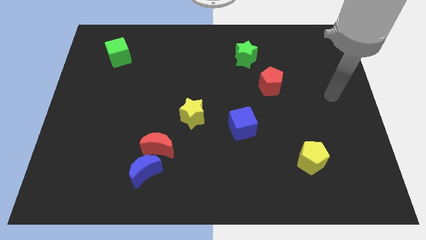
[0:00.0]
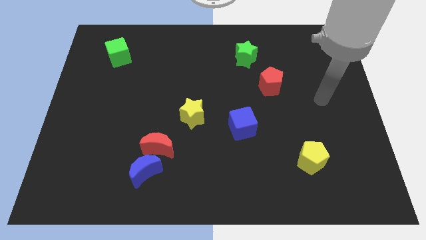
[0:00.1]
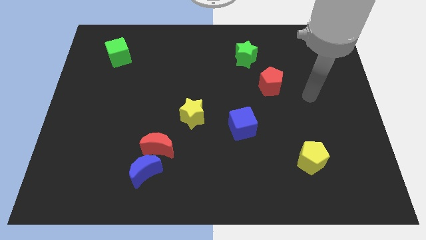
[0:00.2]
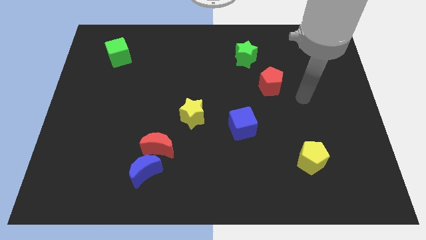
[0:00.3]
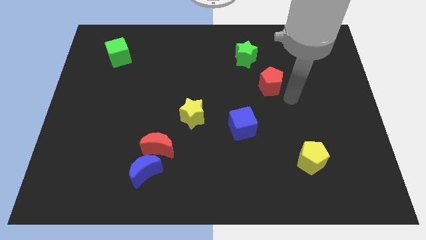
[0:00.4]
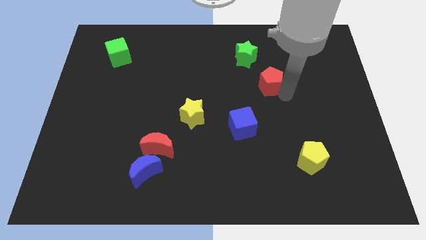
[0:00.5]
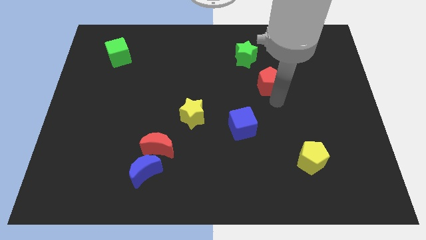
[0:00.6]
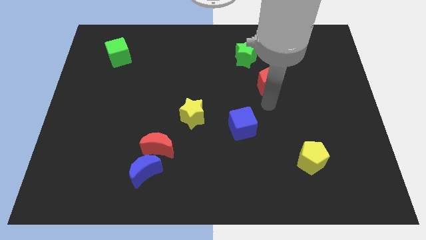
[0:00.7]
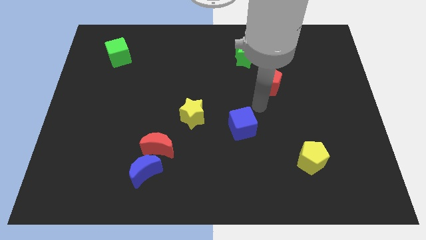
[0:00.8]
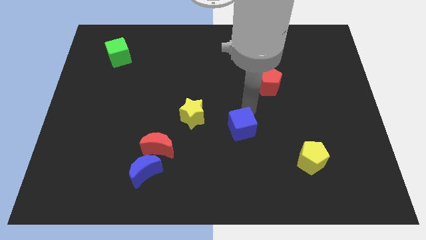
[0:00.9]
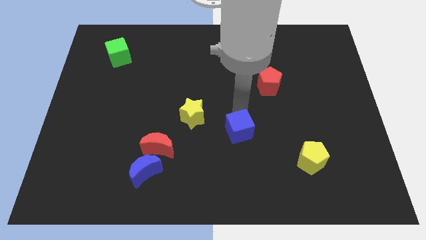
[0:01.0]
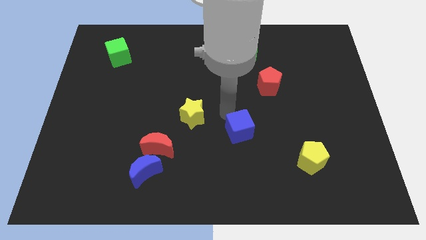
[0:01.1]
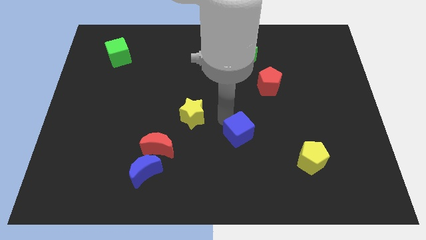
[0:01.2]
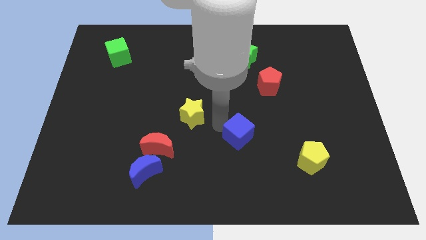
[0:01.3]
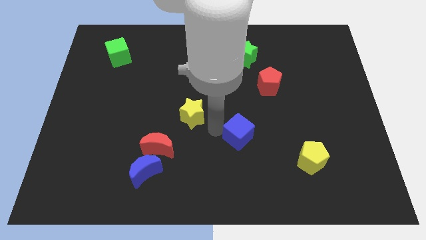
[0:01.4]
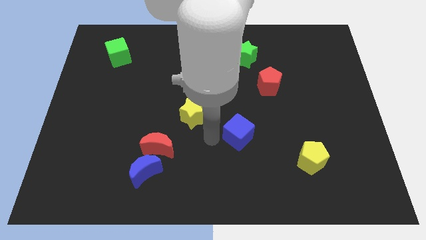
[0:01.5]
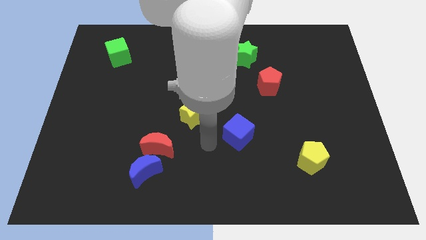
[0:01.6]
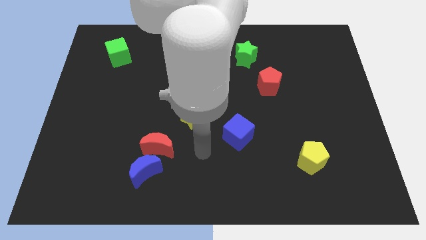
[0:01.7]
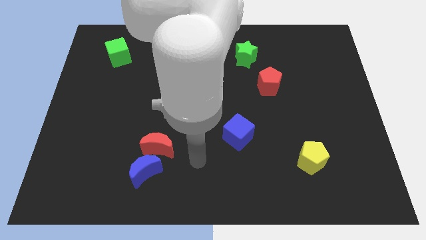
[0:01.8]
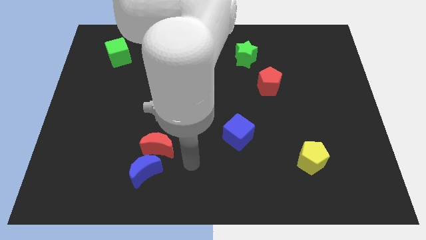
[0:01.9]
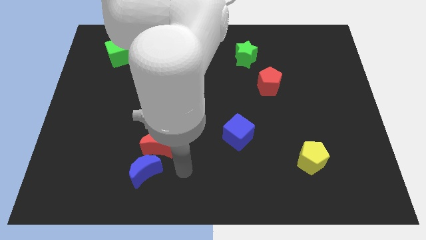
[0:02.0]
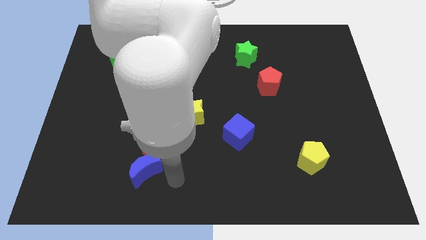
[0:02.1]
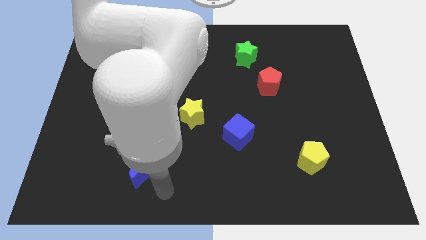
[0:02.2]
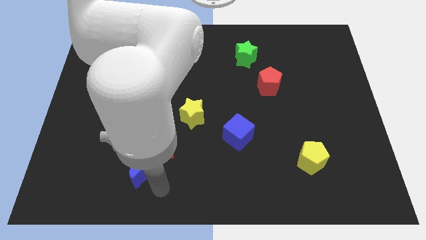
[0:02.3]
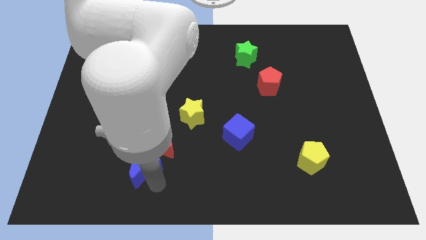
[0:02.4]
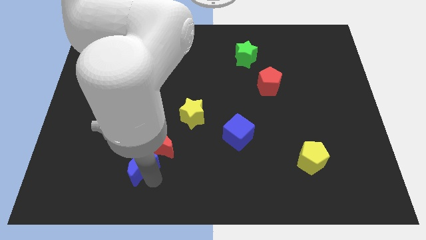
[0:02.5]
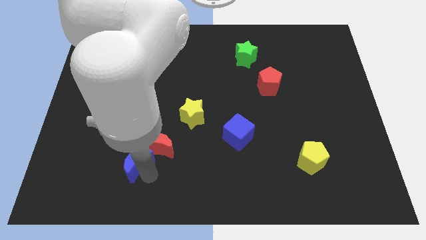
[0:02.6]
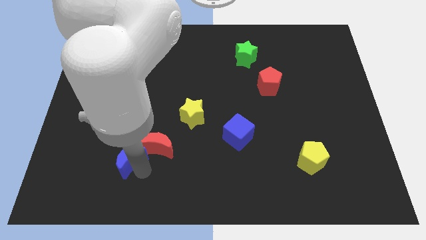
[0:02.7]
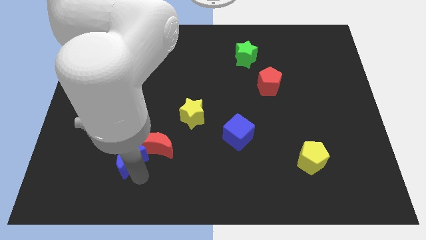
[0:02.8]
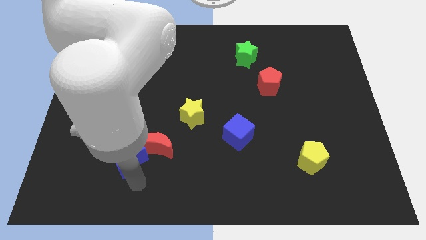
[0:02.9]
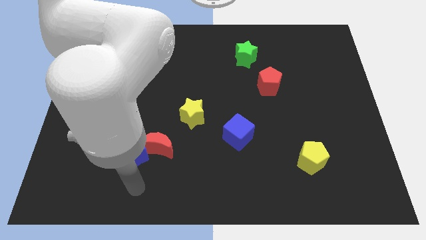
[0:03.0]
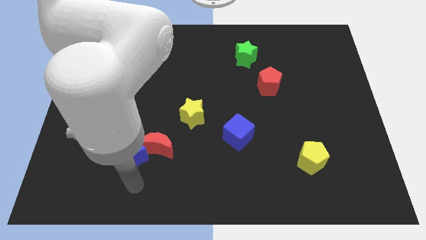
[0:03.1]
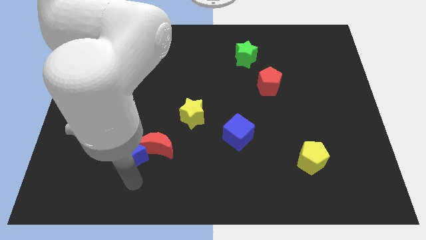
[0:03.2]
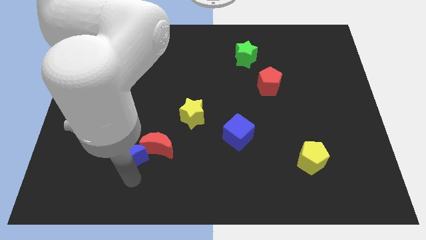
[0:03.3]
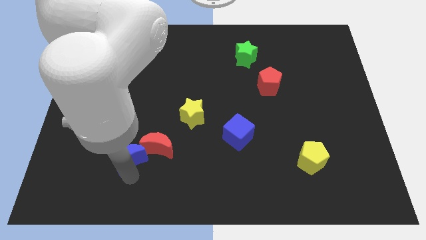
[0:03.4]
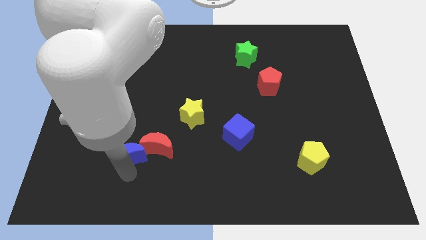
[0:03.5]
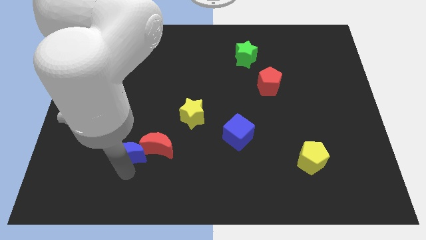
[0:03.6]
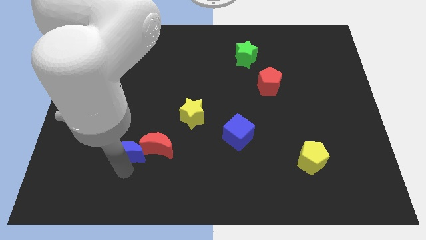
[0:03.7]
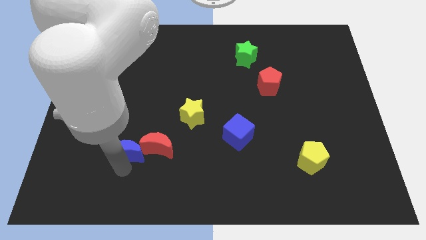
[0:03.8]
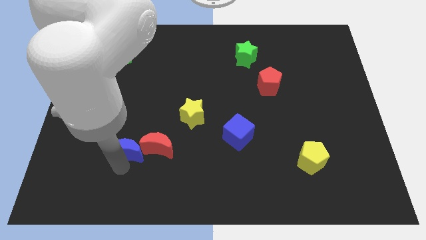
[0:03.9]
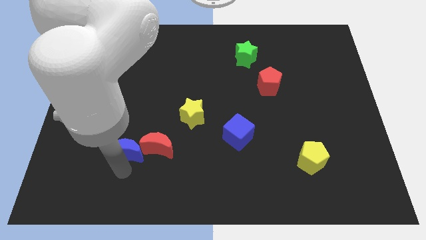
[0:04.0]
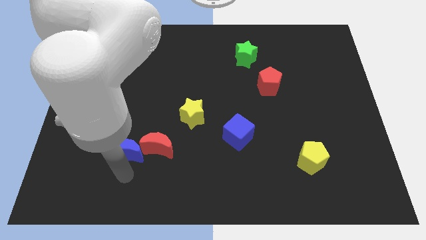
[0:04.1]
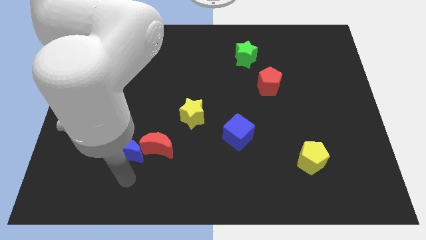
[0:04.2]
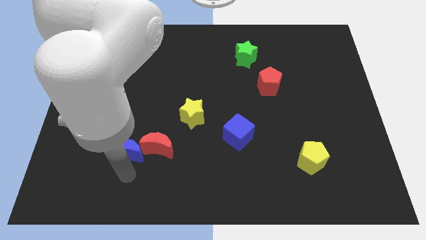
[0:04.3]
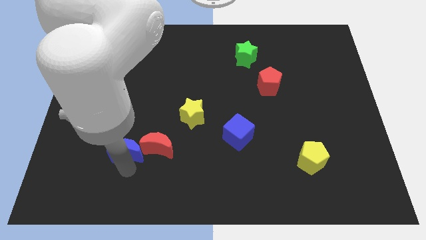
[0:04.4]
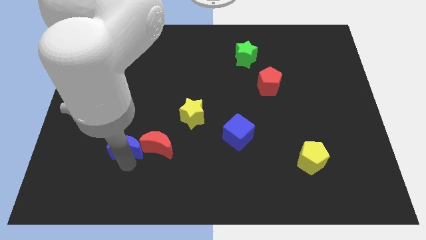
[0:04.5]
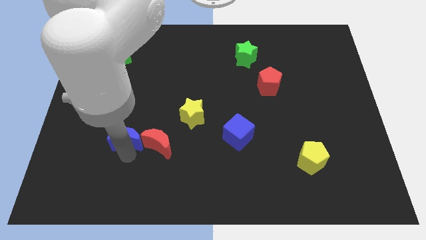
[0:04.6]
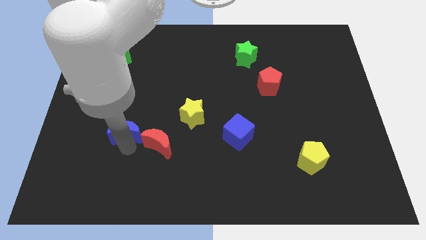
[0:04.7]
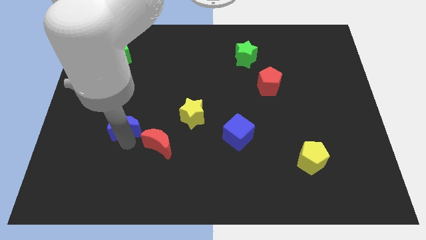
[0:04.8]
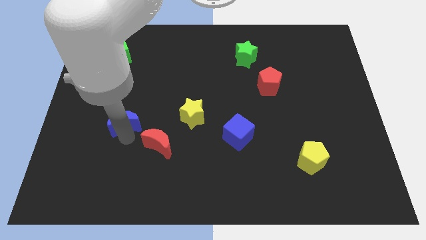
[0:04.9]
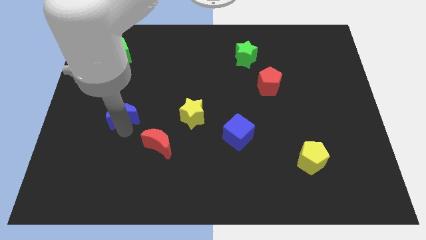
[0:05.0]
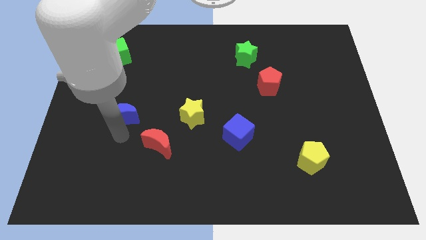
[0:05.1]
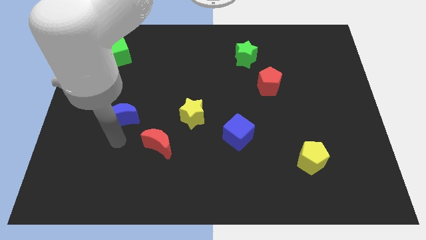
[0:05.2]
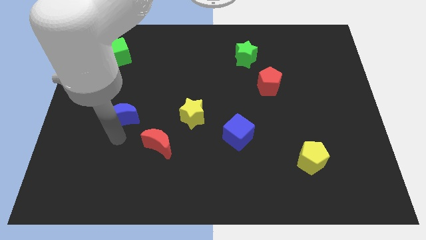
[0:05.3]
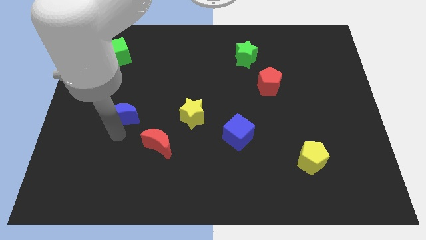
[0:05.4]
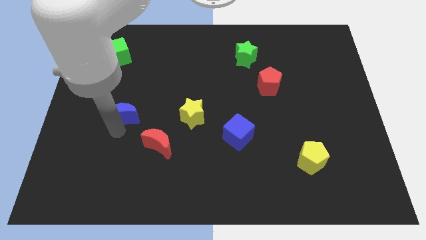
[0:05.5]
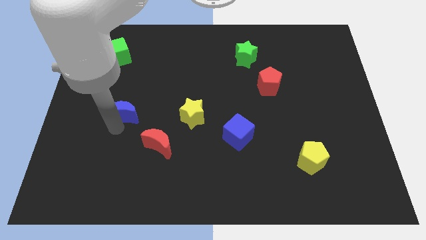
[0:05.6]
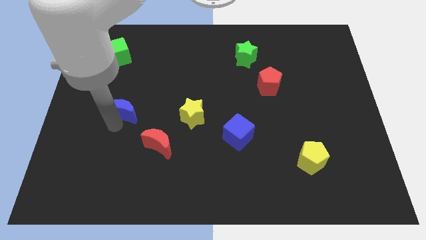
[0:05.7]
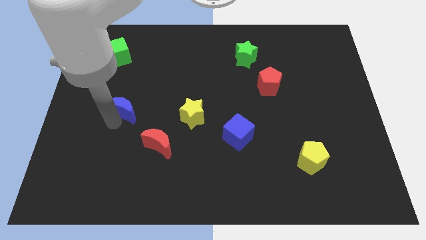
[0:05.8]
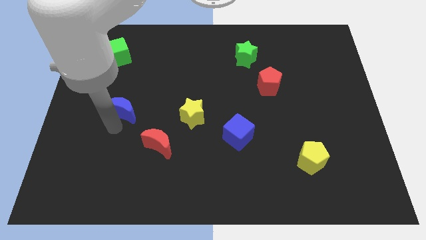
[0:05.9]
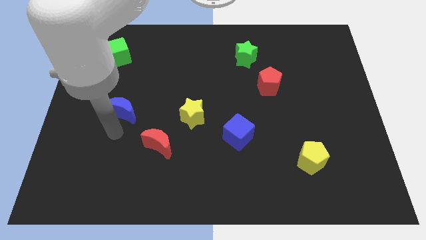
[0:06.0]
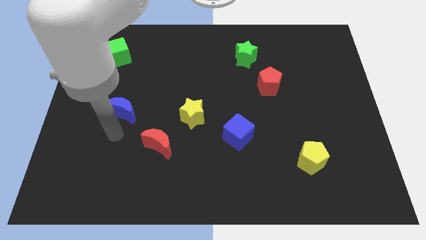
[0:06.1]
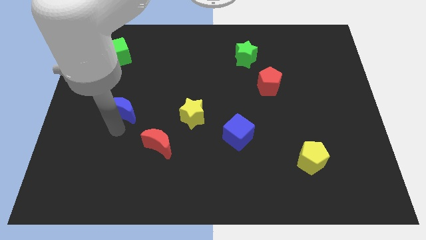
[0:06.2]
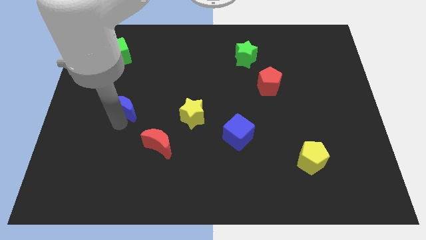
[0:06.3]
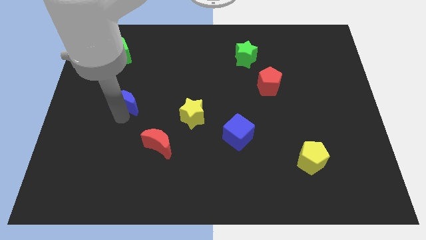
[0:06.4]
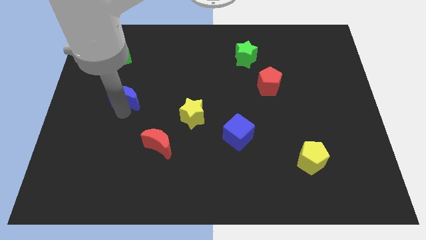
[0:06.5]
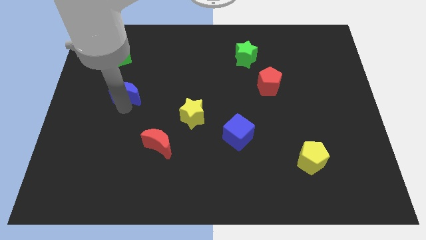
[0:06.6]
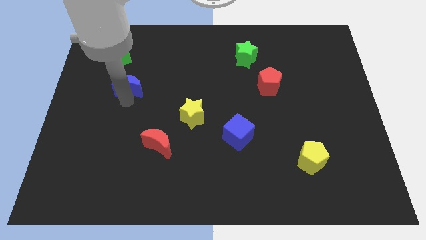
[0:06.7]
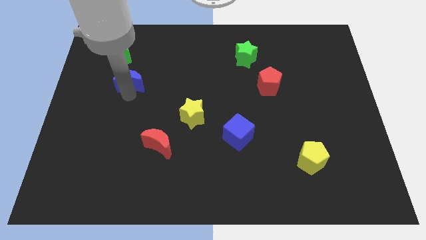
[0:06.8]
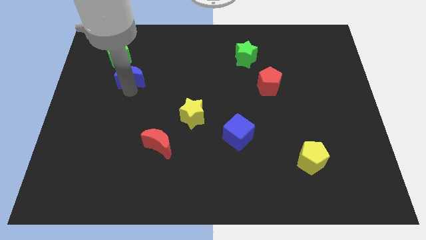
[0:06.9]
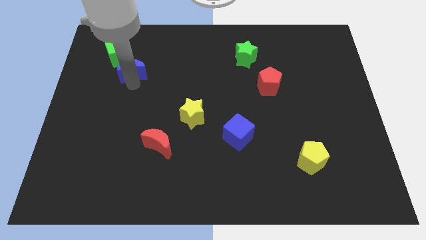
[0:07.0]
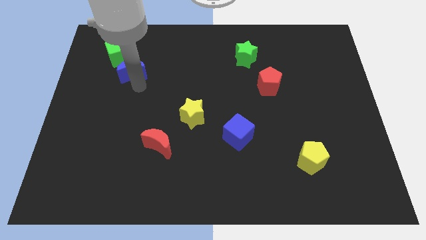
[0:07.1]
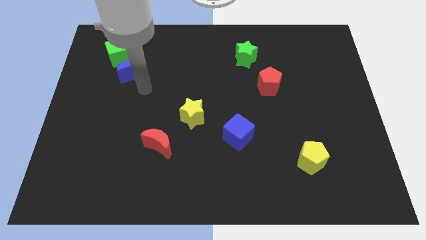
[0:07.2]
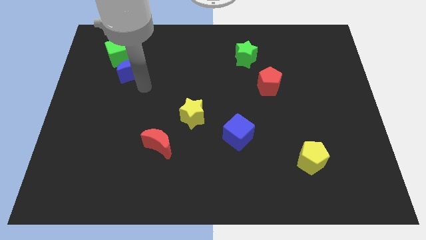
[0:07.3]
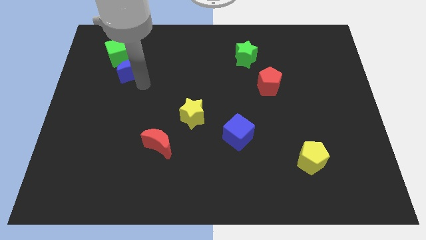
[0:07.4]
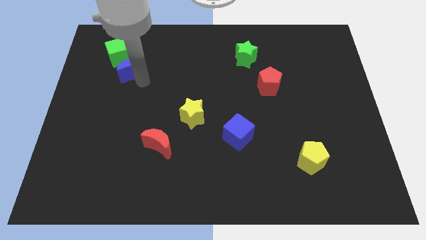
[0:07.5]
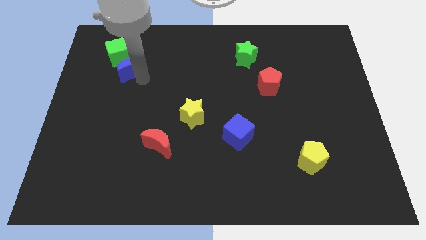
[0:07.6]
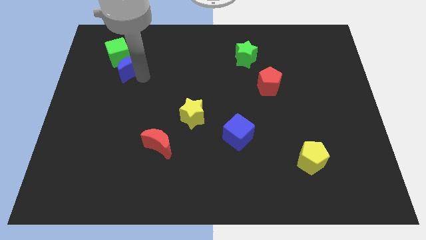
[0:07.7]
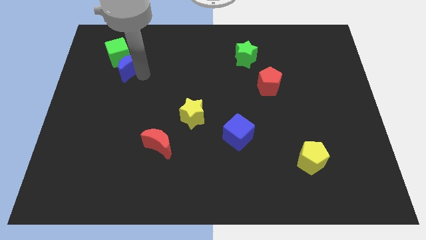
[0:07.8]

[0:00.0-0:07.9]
move the blue moon towards the green cube
